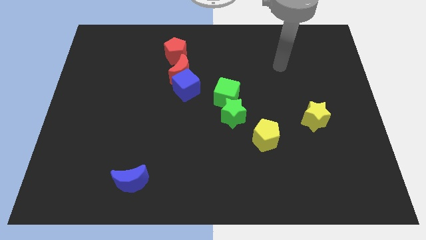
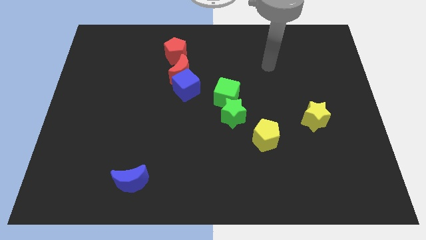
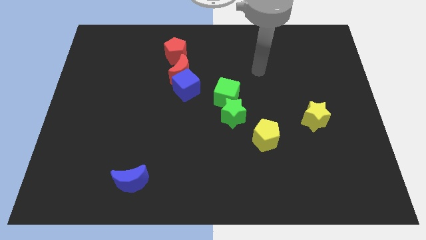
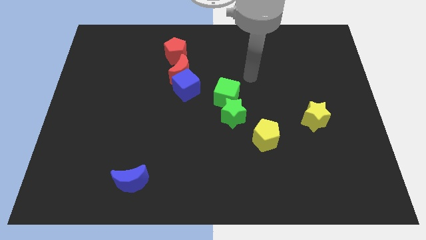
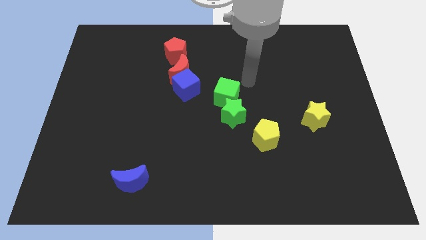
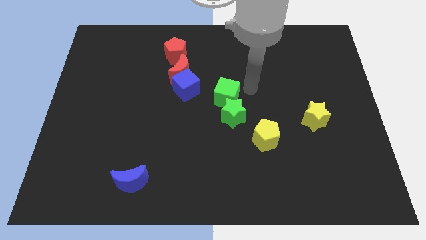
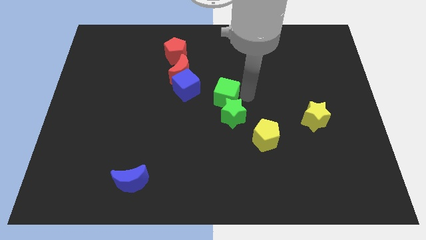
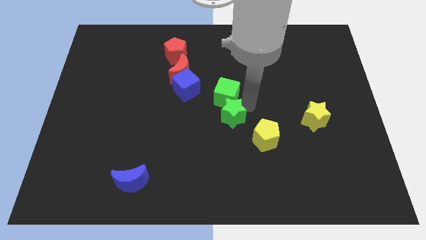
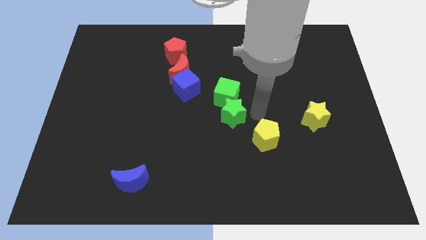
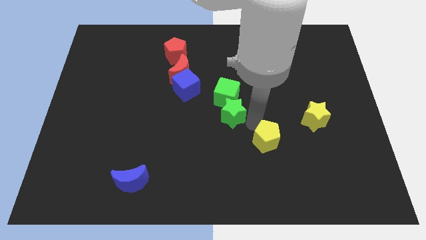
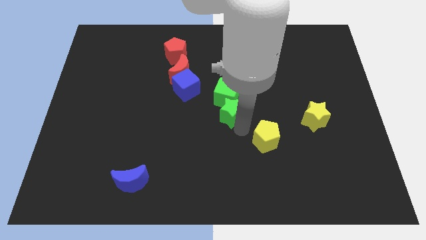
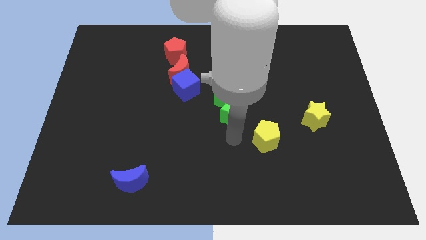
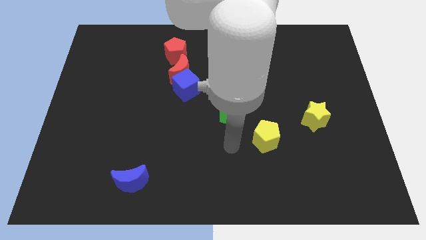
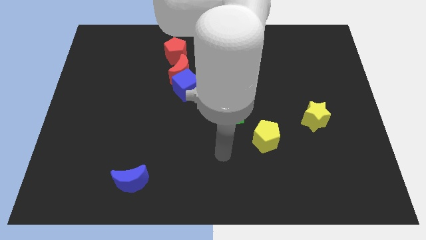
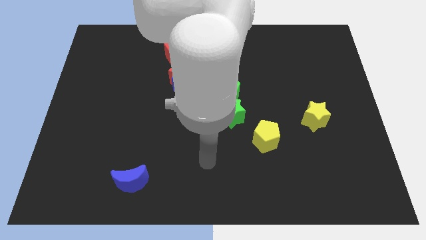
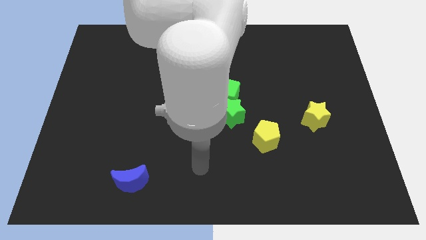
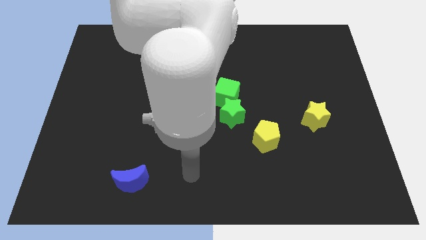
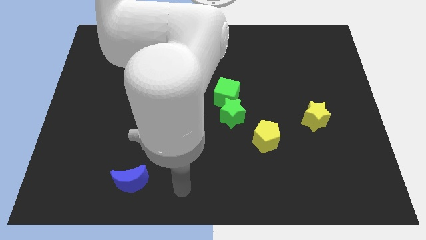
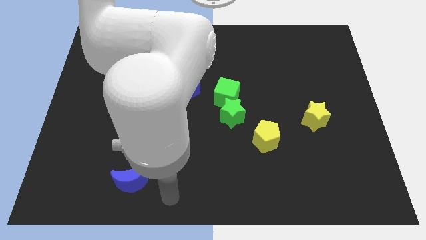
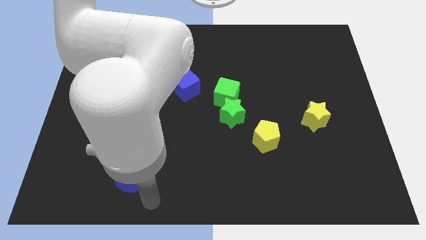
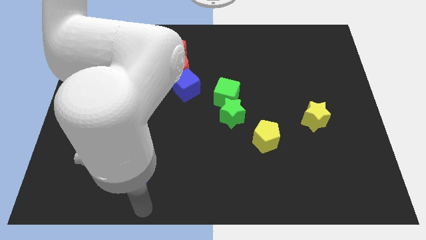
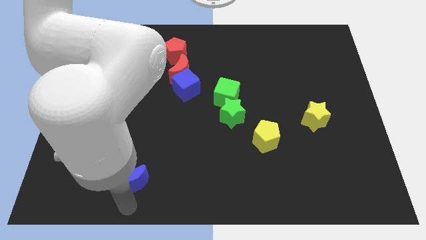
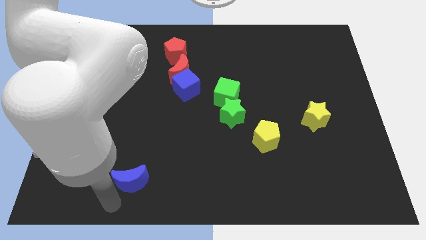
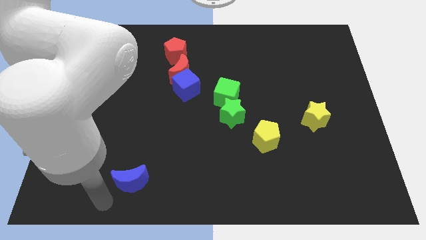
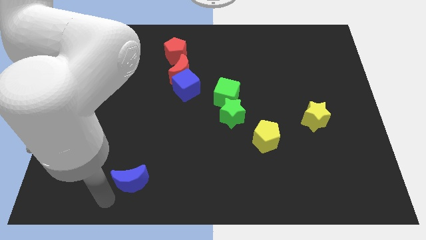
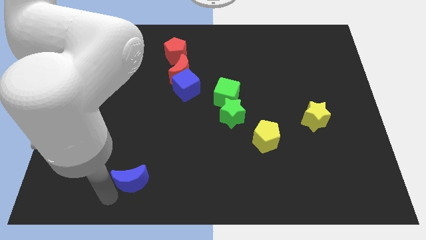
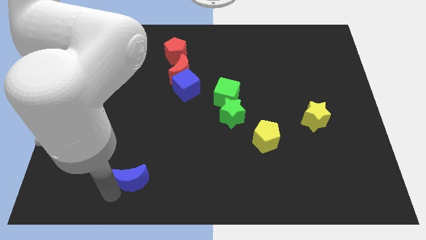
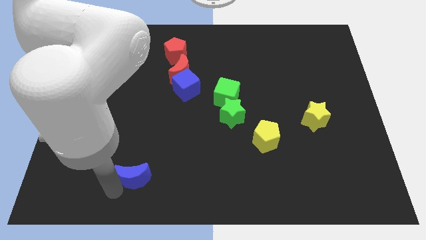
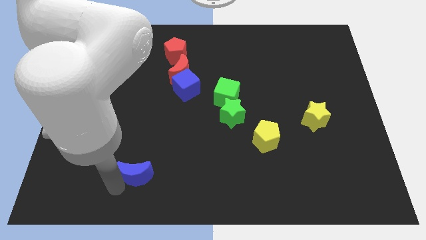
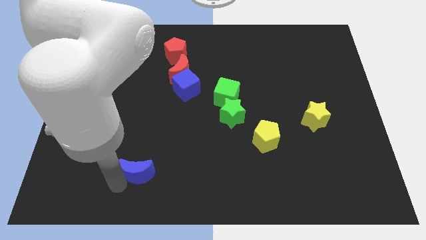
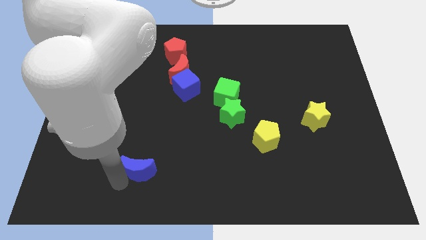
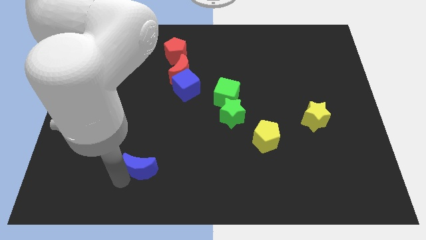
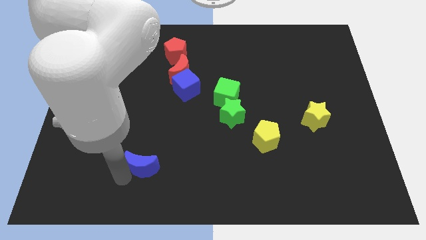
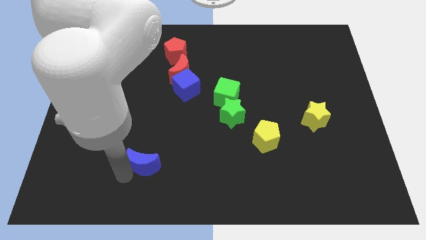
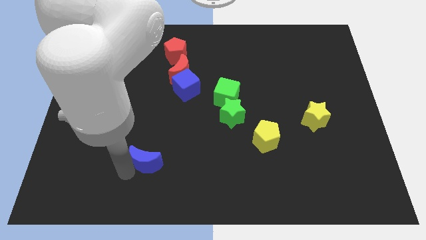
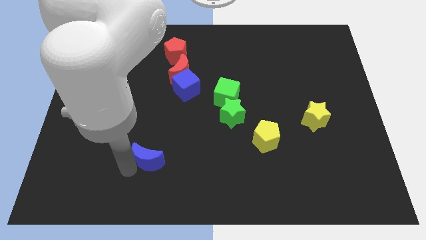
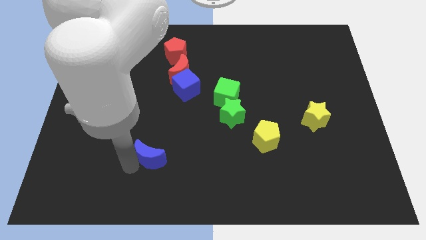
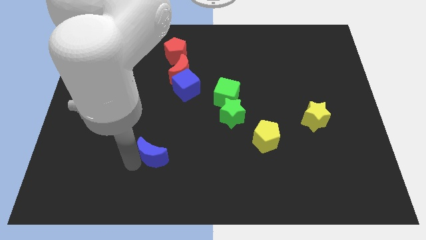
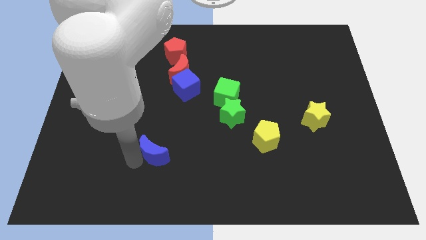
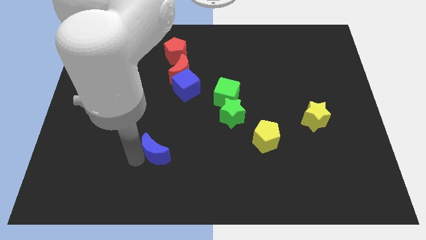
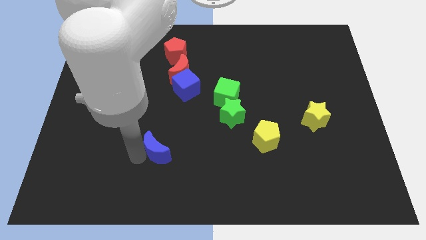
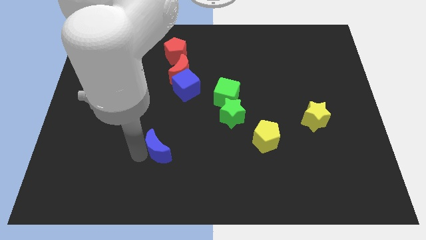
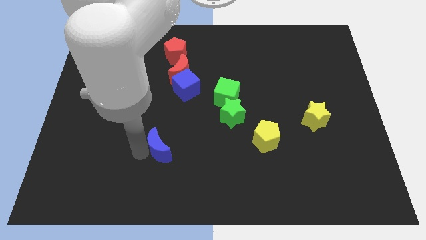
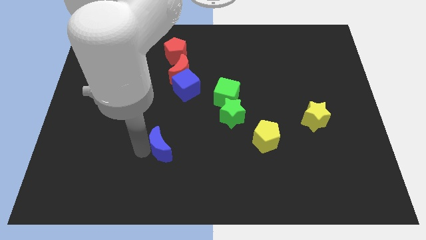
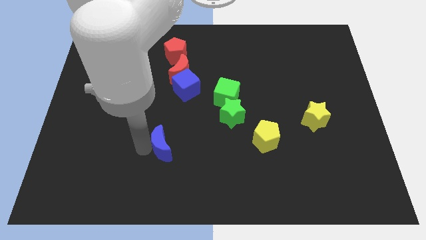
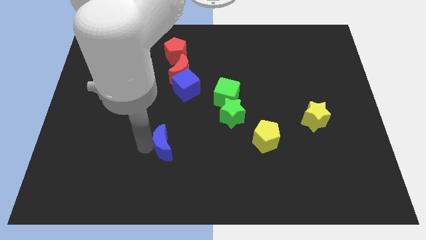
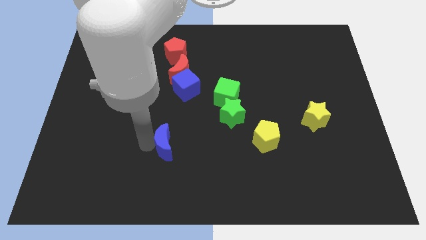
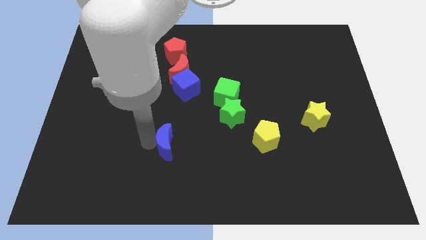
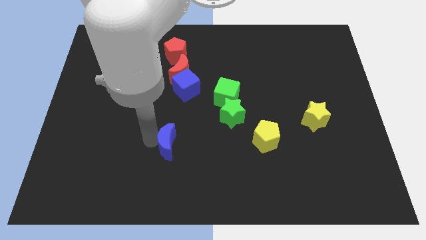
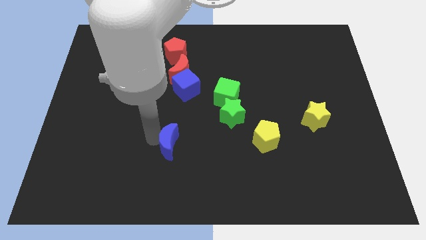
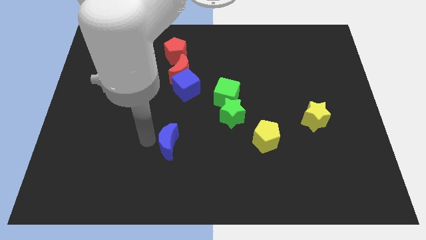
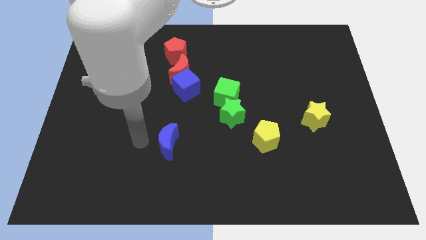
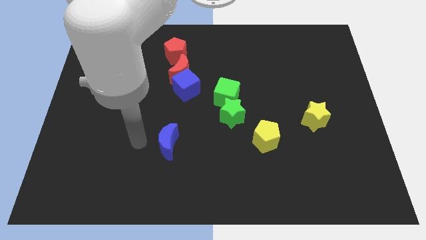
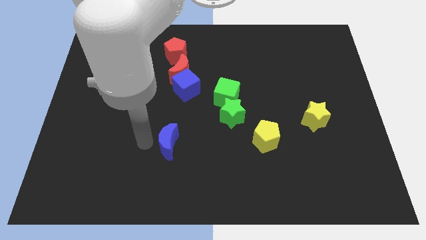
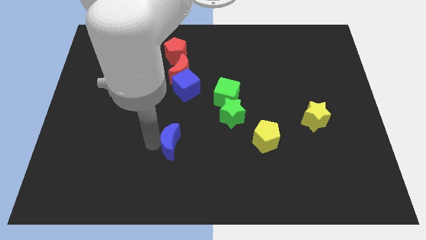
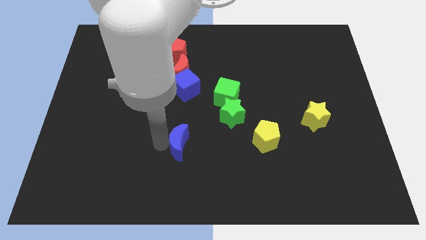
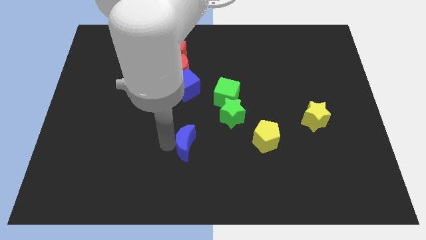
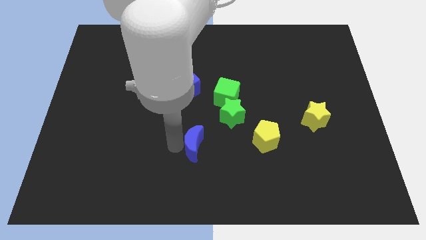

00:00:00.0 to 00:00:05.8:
push the blue moon left of the yellow pentagon
